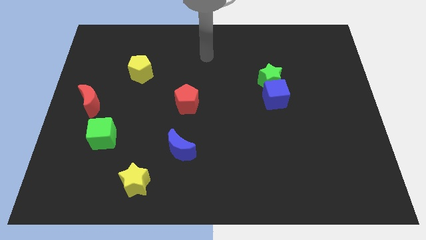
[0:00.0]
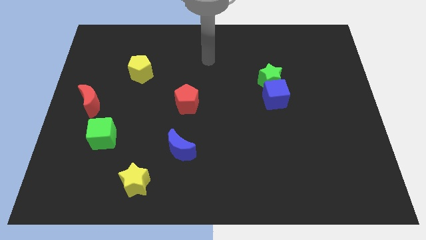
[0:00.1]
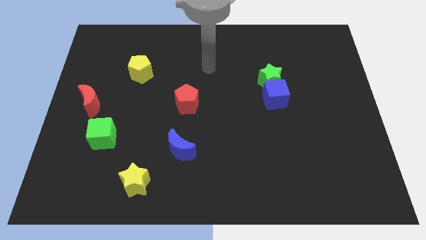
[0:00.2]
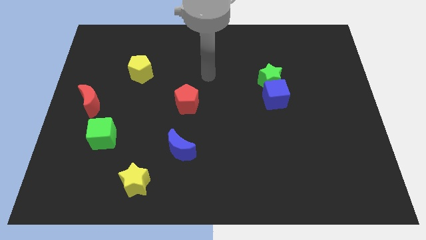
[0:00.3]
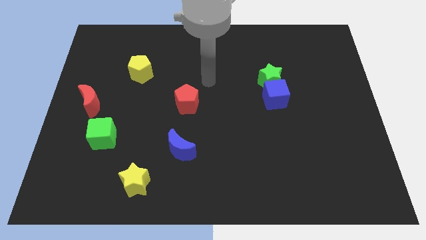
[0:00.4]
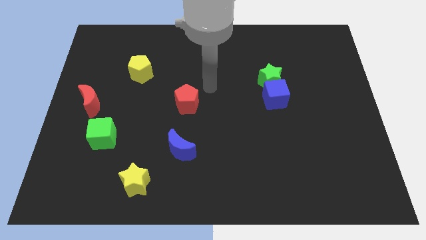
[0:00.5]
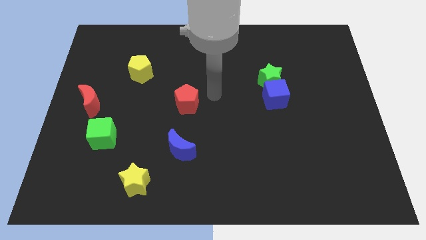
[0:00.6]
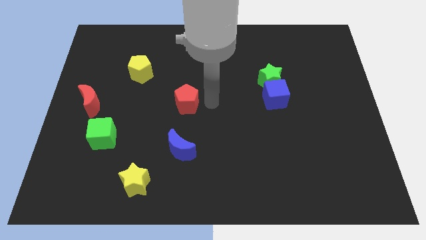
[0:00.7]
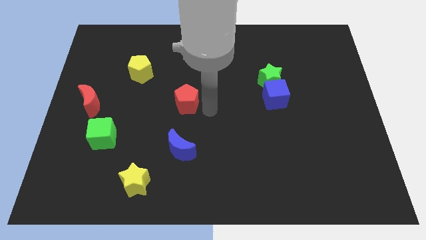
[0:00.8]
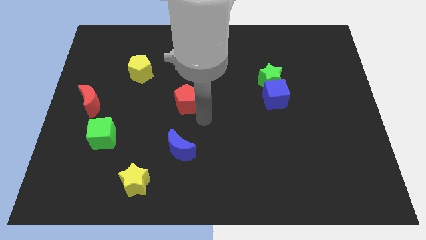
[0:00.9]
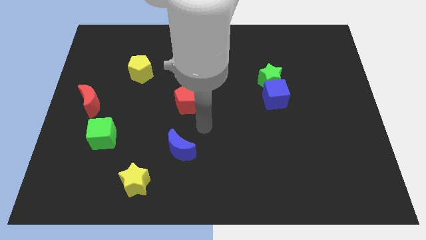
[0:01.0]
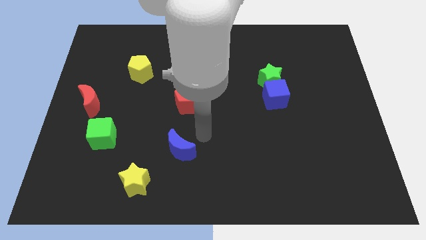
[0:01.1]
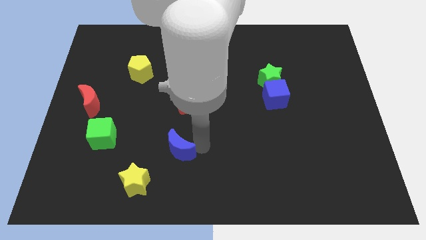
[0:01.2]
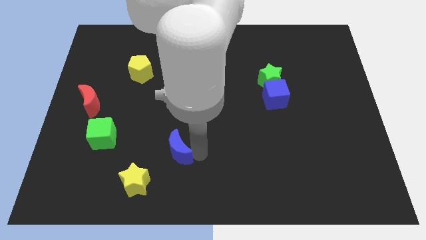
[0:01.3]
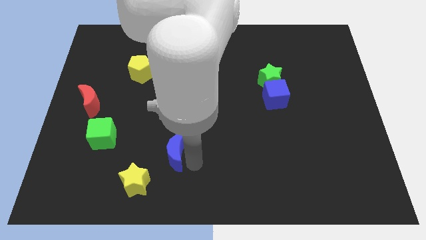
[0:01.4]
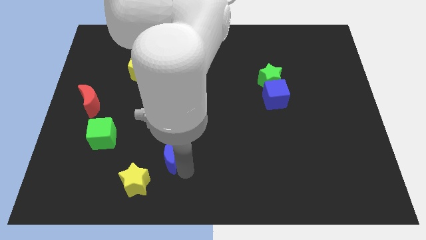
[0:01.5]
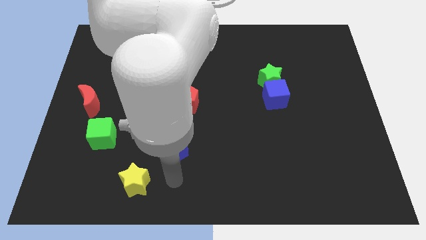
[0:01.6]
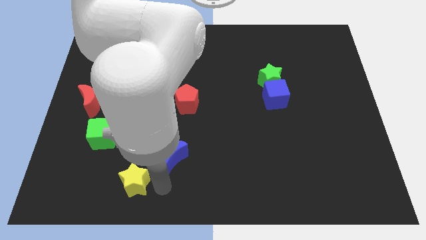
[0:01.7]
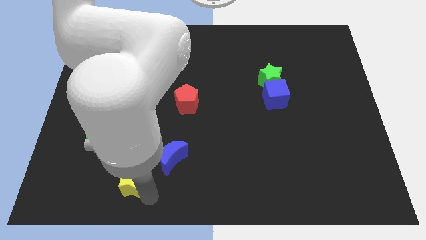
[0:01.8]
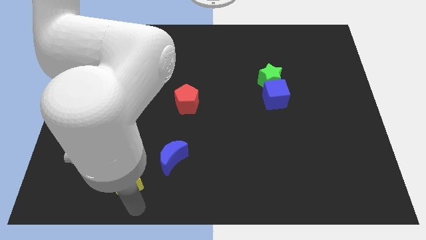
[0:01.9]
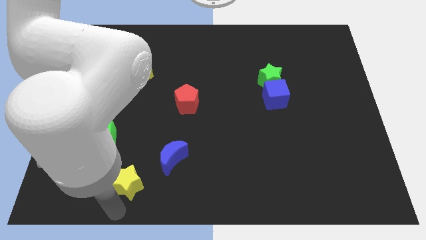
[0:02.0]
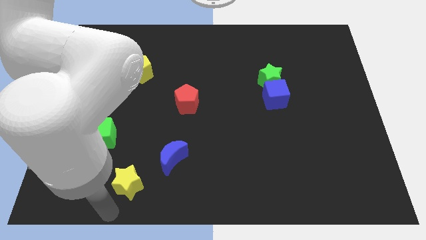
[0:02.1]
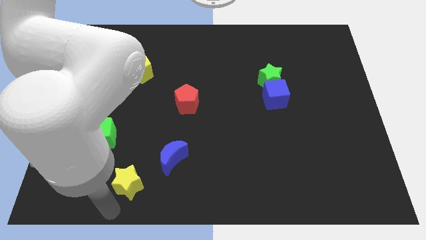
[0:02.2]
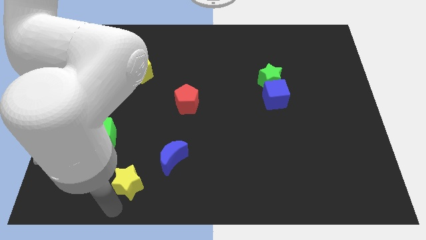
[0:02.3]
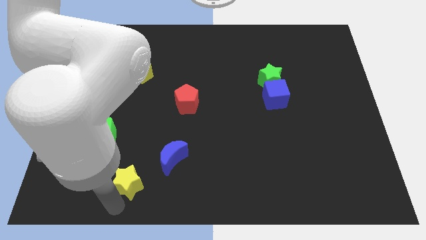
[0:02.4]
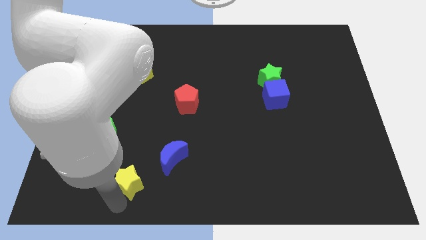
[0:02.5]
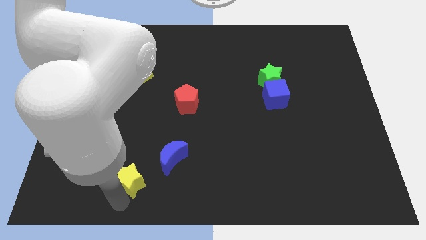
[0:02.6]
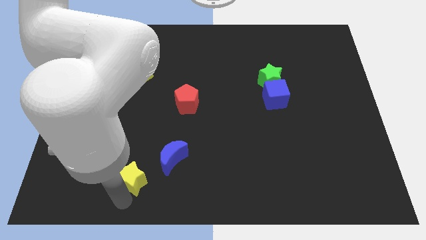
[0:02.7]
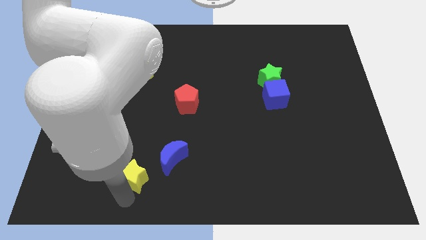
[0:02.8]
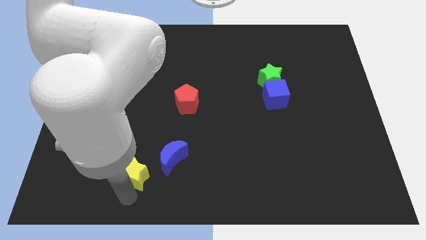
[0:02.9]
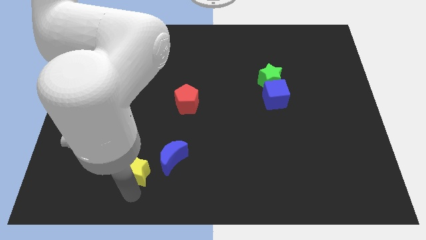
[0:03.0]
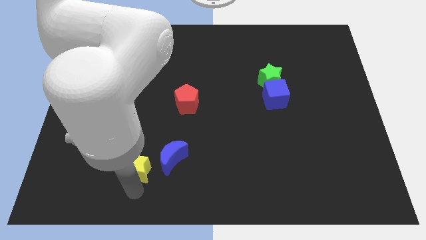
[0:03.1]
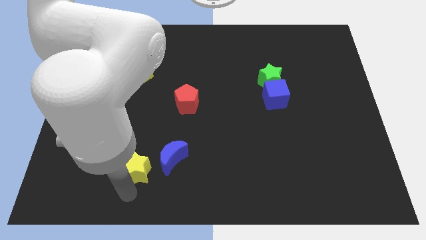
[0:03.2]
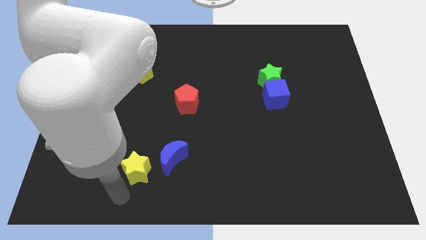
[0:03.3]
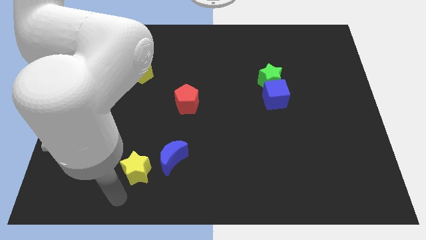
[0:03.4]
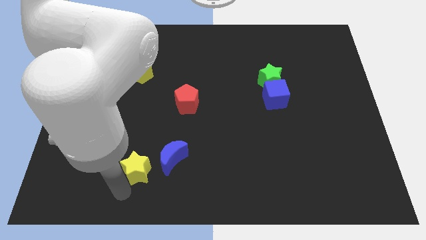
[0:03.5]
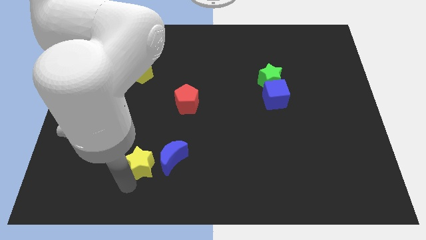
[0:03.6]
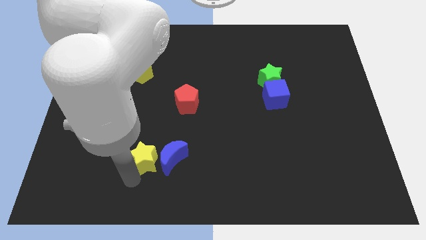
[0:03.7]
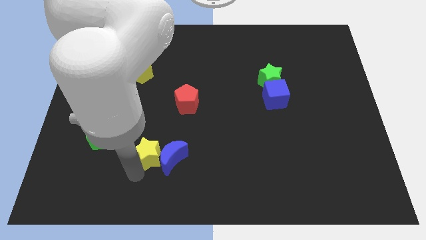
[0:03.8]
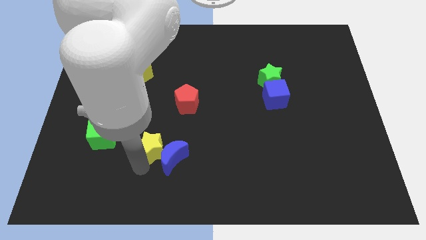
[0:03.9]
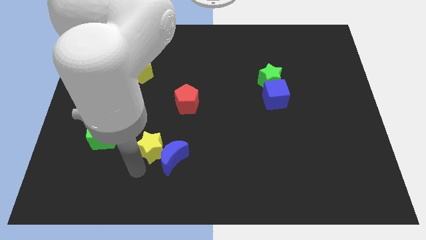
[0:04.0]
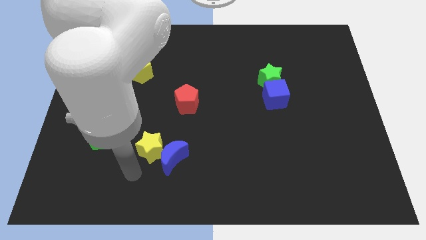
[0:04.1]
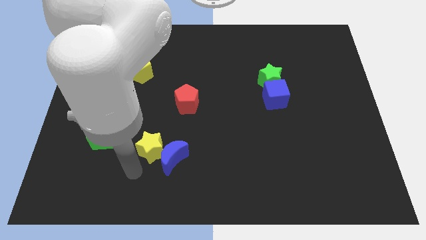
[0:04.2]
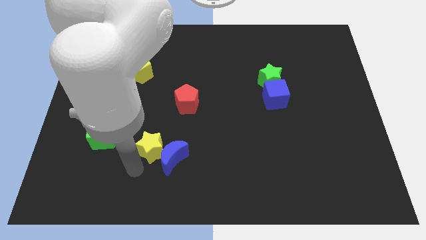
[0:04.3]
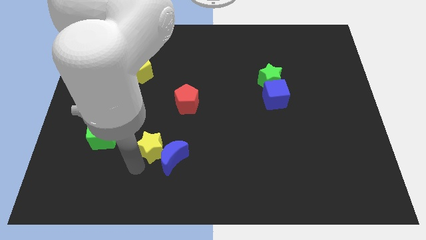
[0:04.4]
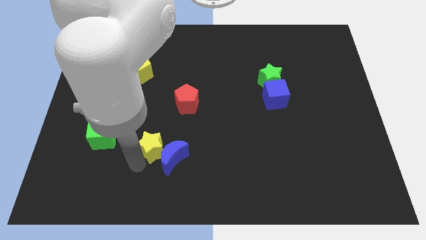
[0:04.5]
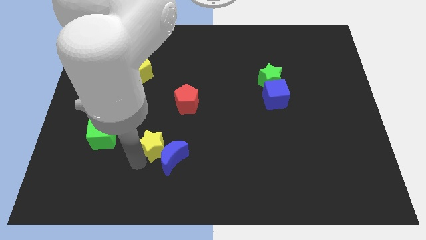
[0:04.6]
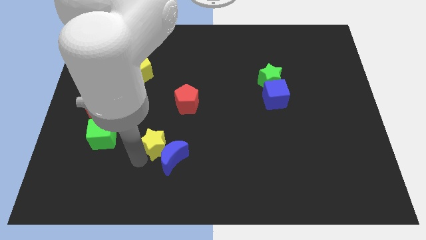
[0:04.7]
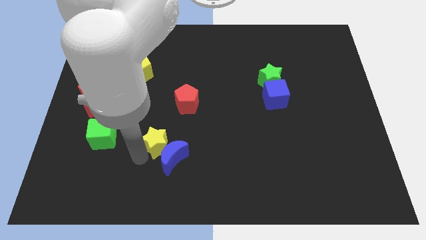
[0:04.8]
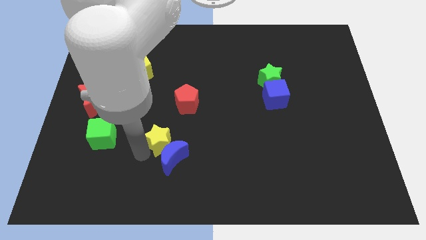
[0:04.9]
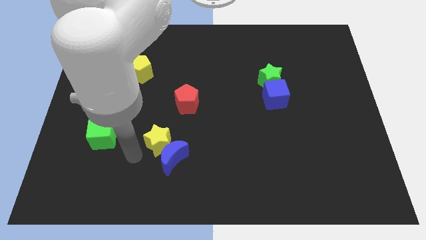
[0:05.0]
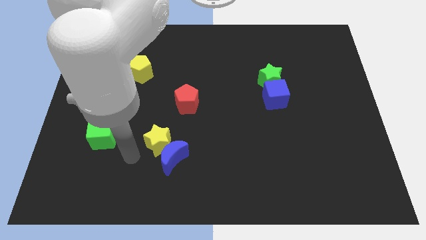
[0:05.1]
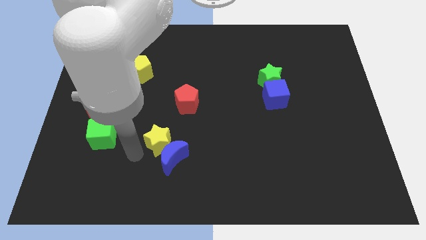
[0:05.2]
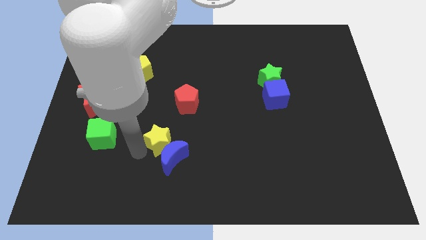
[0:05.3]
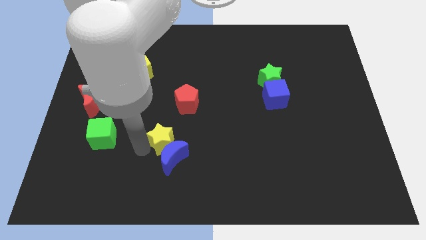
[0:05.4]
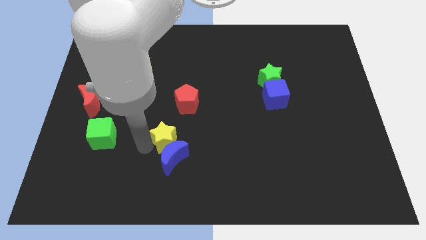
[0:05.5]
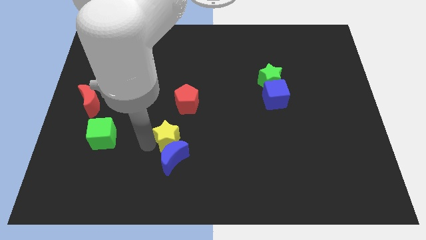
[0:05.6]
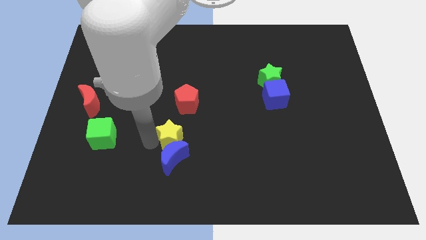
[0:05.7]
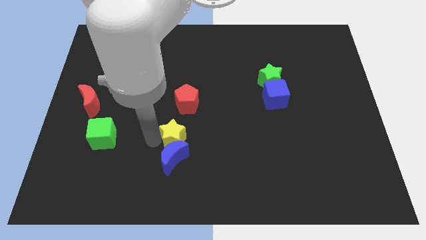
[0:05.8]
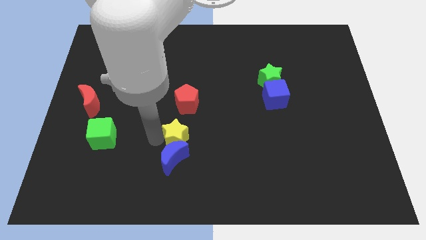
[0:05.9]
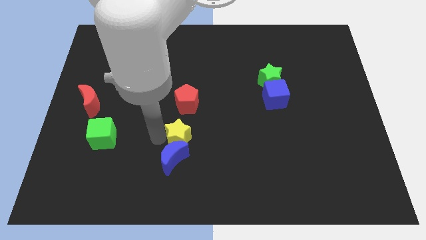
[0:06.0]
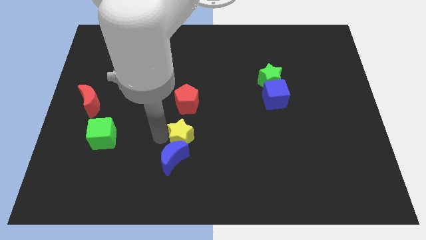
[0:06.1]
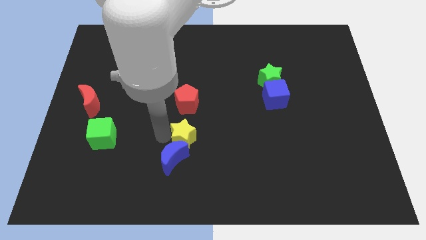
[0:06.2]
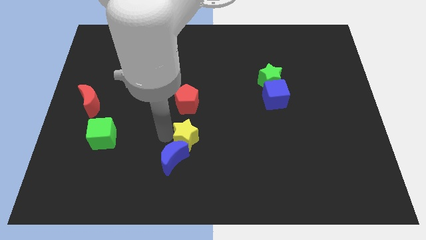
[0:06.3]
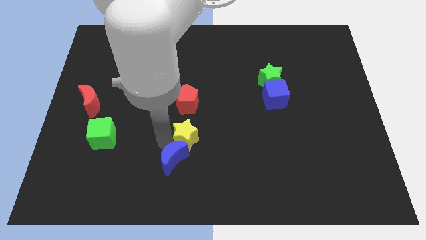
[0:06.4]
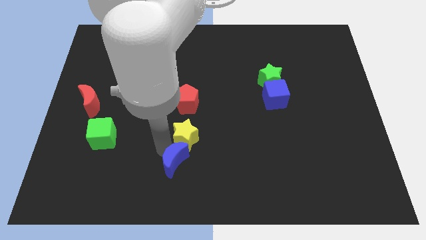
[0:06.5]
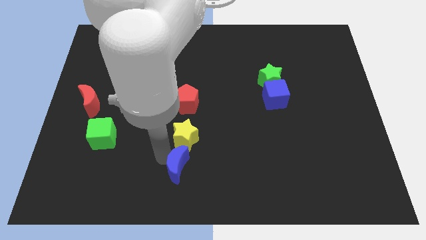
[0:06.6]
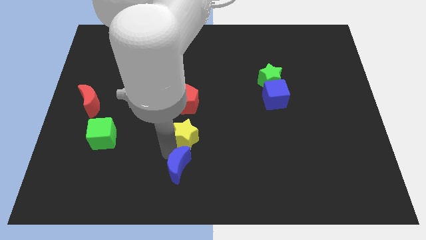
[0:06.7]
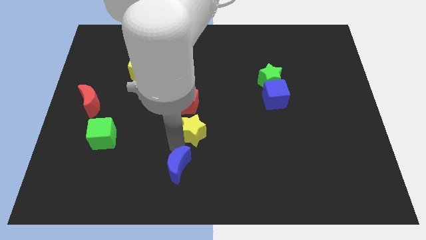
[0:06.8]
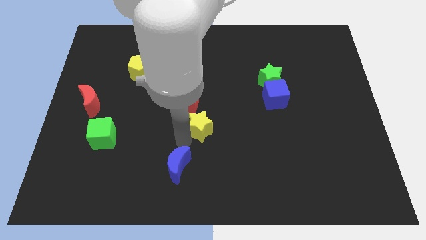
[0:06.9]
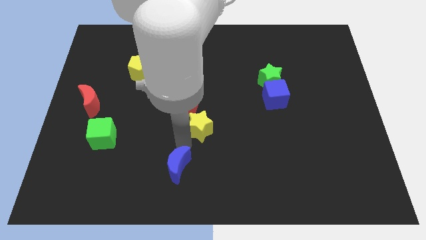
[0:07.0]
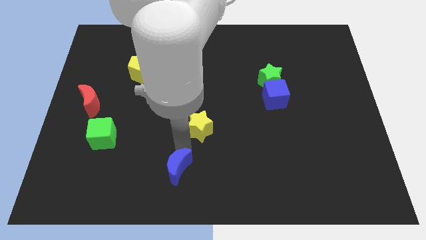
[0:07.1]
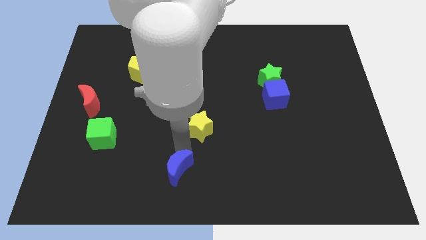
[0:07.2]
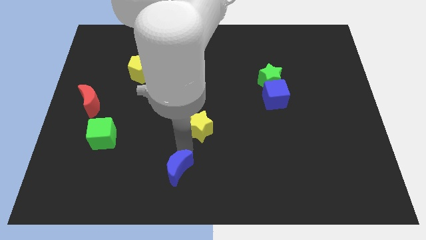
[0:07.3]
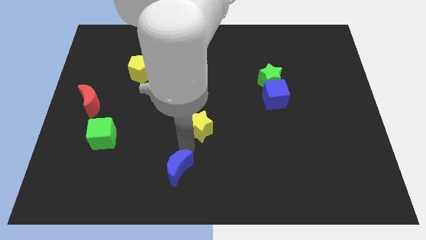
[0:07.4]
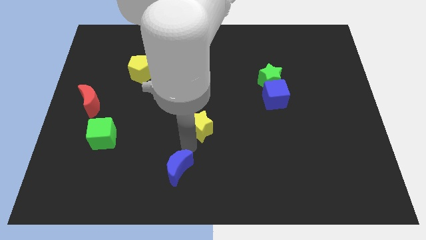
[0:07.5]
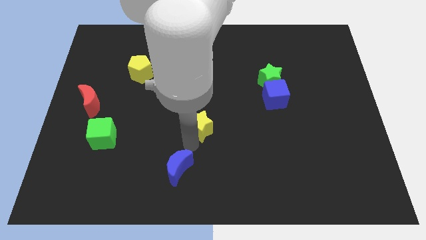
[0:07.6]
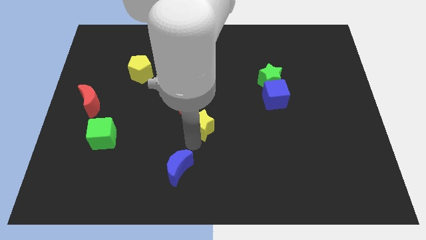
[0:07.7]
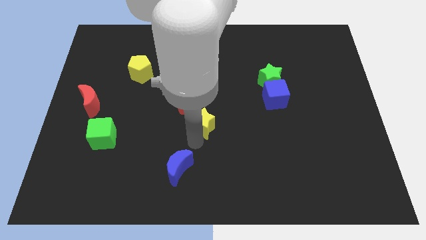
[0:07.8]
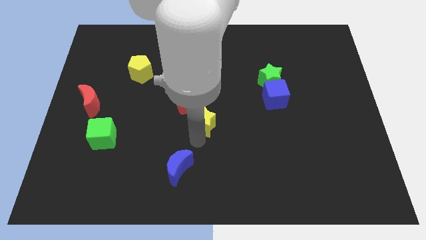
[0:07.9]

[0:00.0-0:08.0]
push the yellow star diagonally upwards and to the right

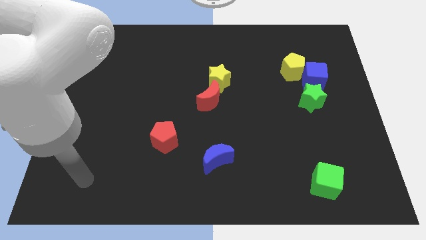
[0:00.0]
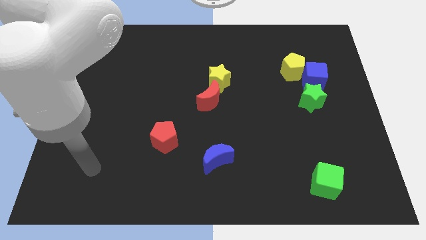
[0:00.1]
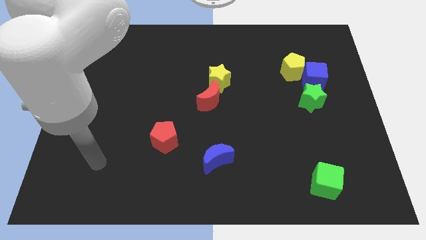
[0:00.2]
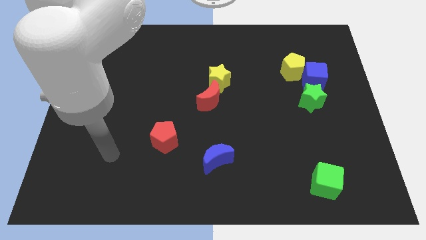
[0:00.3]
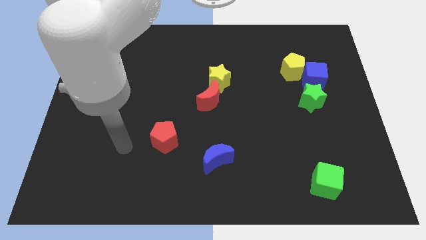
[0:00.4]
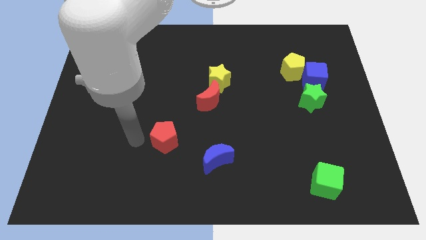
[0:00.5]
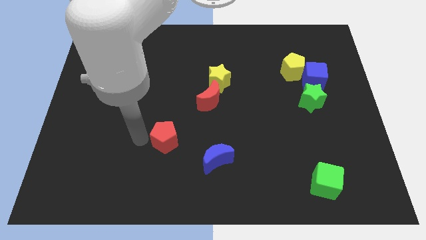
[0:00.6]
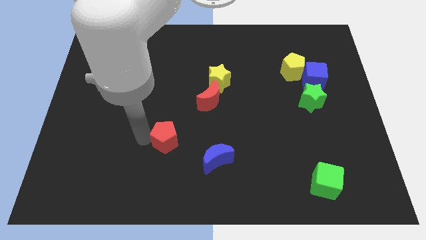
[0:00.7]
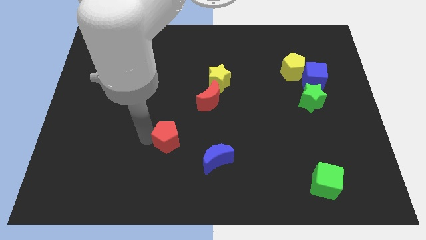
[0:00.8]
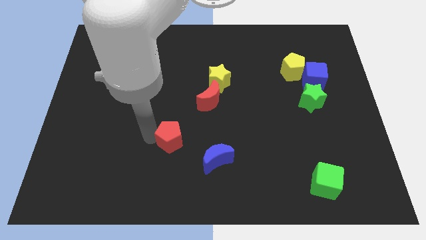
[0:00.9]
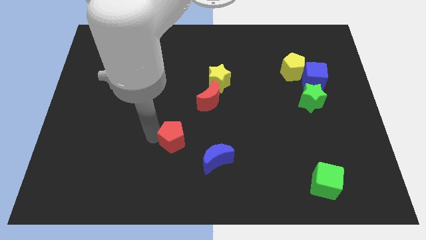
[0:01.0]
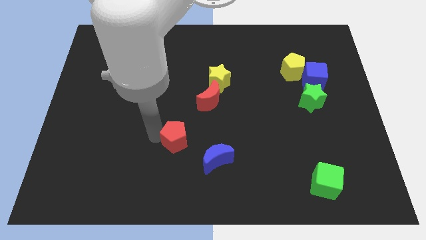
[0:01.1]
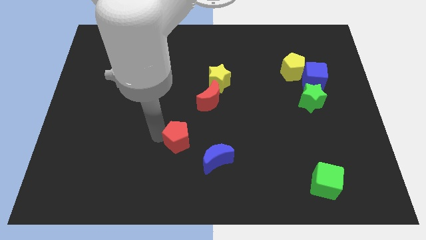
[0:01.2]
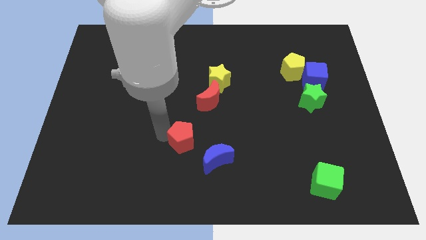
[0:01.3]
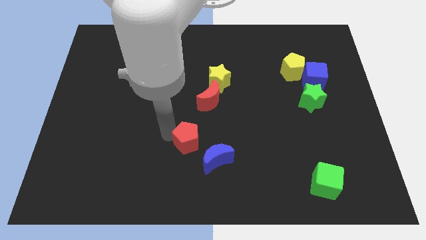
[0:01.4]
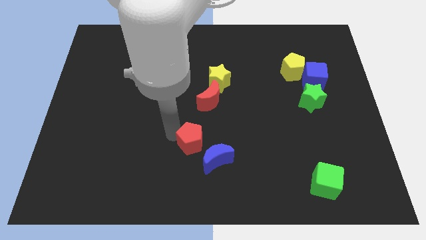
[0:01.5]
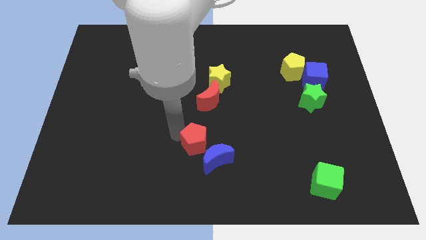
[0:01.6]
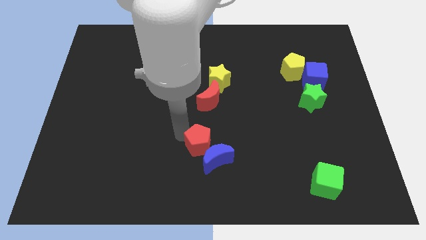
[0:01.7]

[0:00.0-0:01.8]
move the red pentagon a little bit to the right
